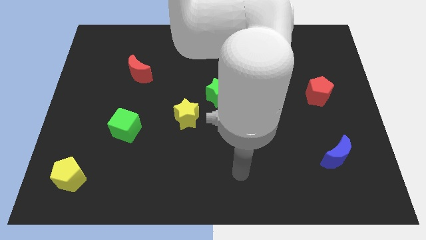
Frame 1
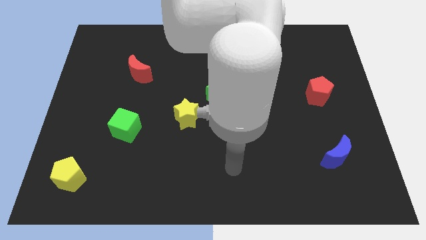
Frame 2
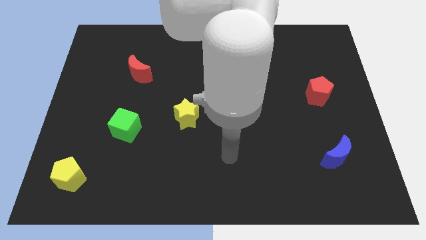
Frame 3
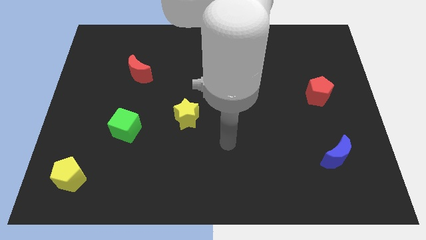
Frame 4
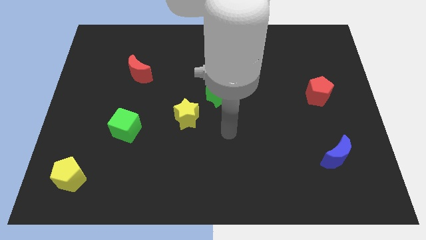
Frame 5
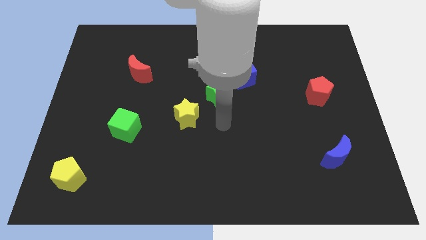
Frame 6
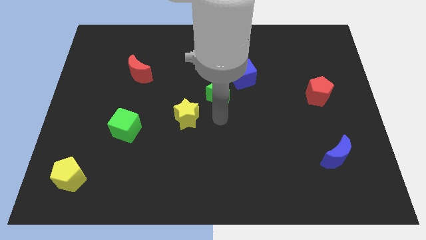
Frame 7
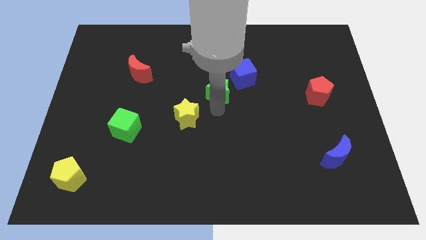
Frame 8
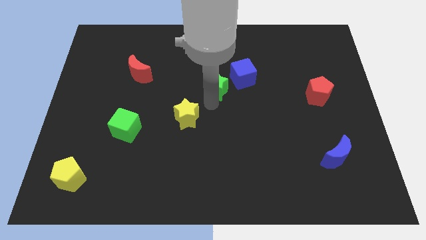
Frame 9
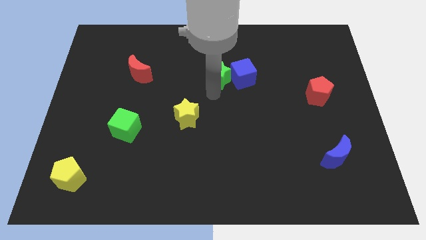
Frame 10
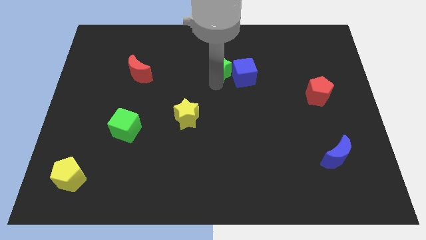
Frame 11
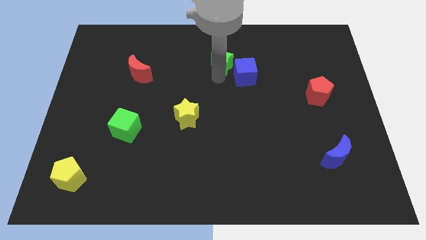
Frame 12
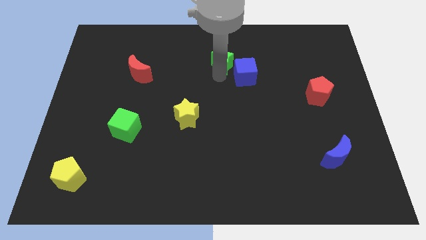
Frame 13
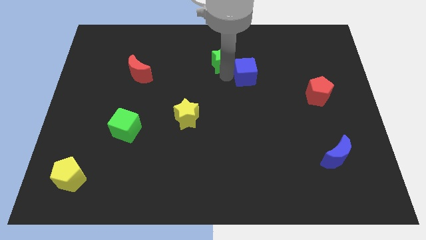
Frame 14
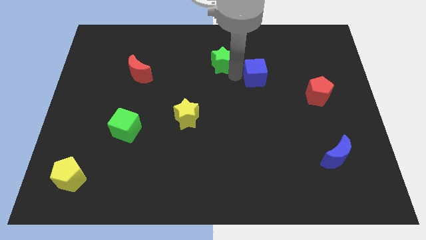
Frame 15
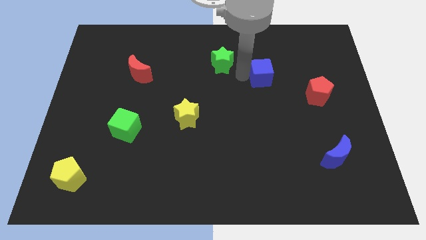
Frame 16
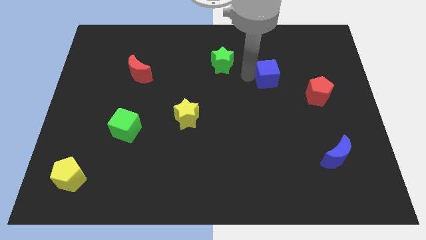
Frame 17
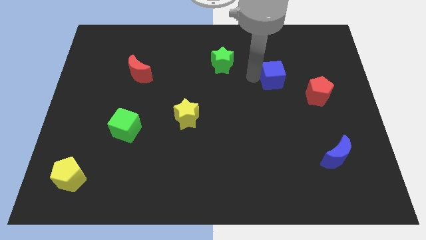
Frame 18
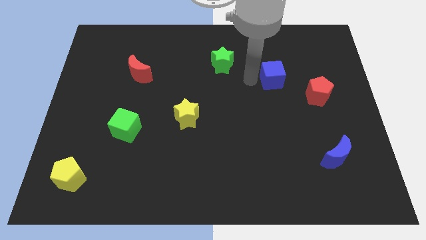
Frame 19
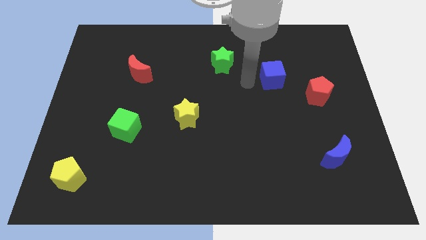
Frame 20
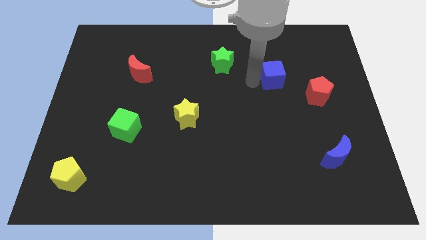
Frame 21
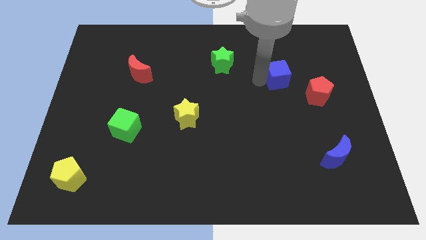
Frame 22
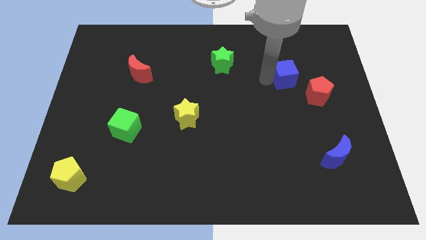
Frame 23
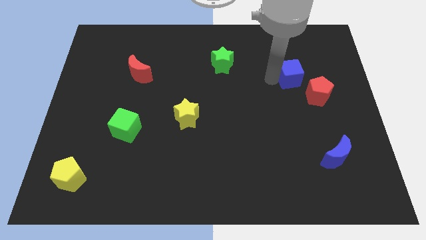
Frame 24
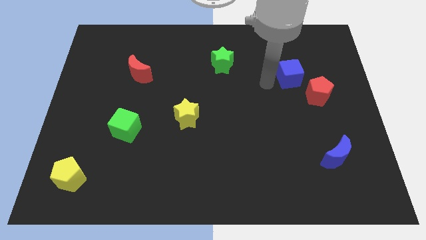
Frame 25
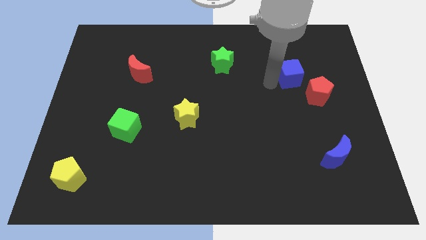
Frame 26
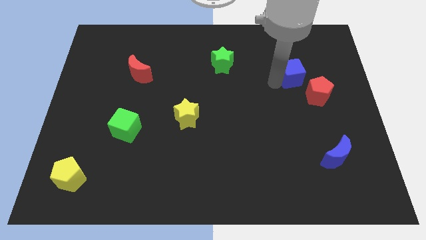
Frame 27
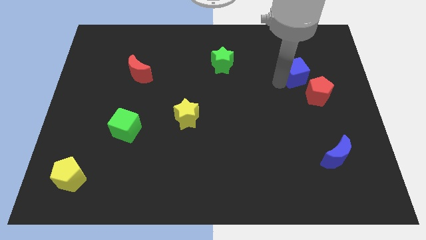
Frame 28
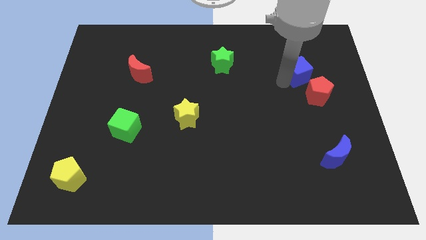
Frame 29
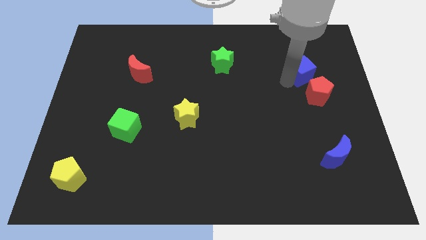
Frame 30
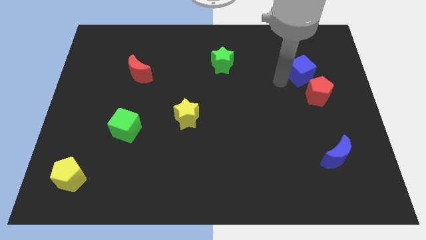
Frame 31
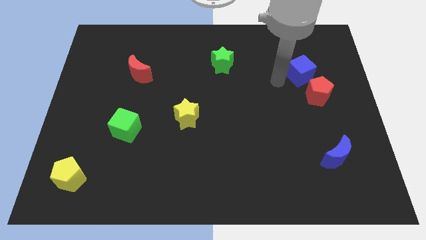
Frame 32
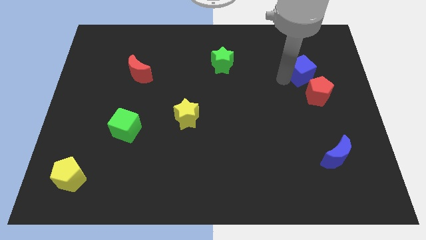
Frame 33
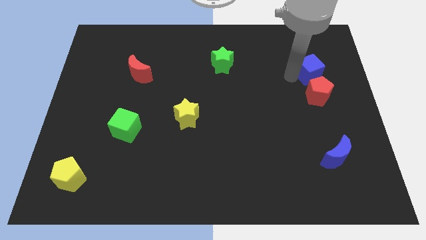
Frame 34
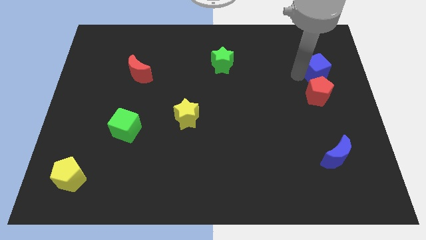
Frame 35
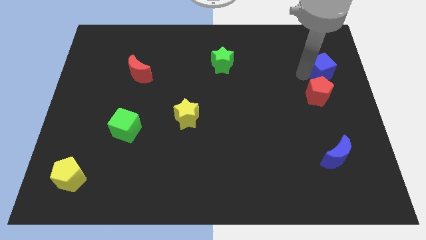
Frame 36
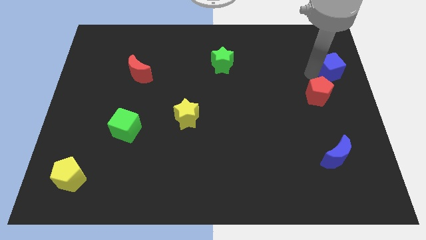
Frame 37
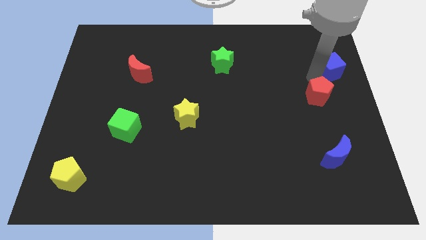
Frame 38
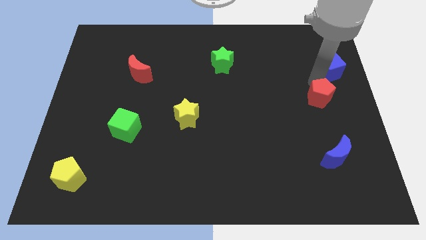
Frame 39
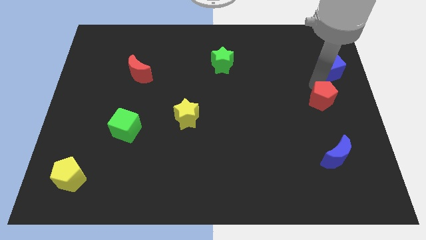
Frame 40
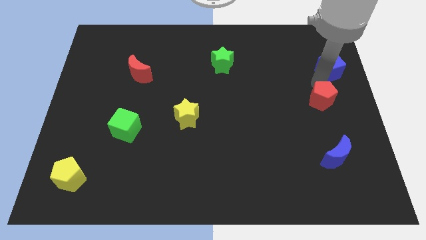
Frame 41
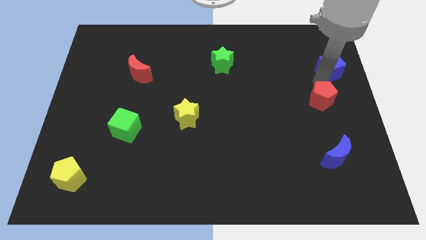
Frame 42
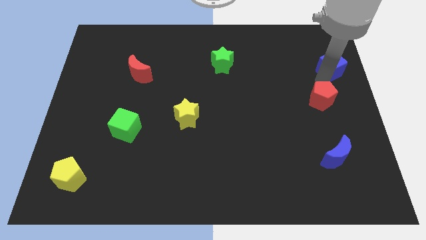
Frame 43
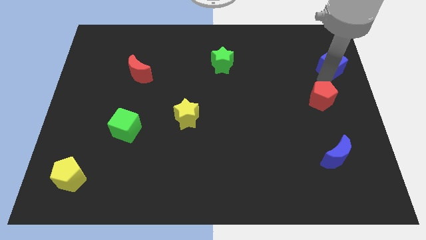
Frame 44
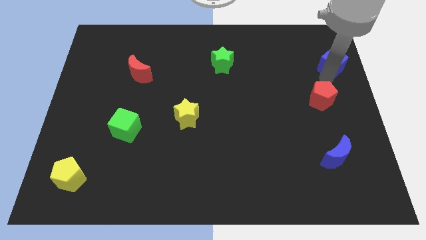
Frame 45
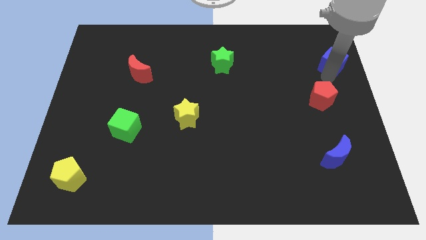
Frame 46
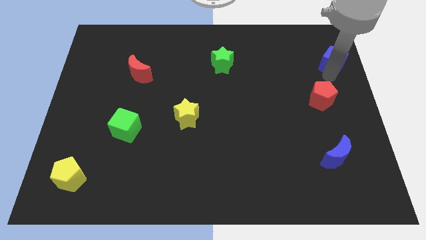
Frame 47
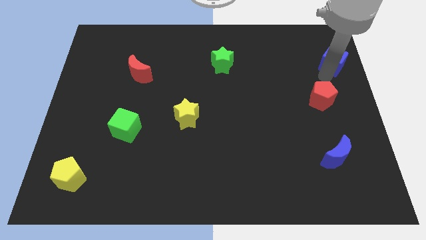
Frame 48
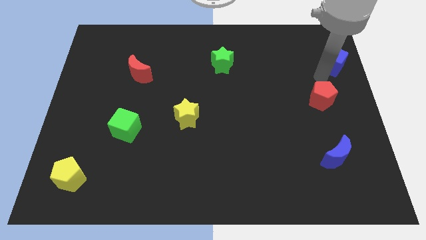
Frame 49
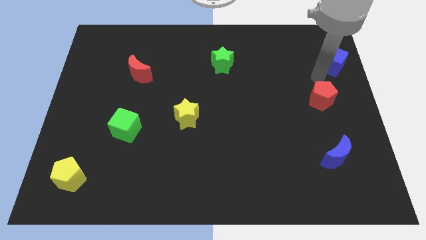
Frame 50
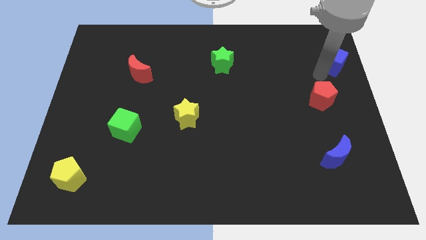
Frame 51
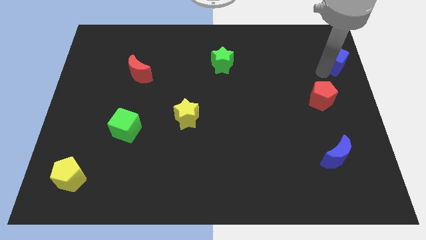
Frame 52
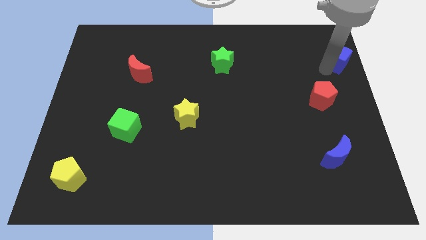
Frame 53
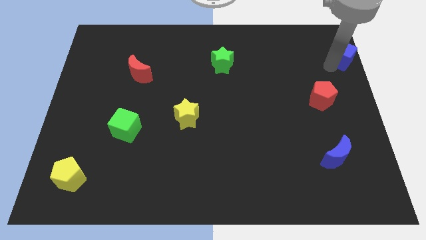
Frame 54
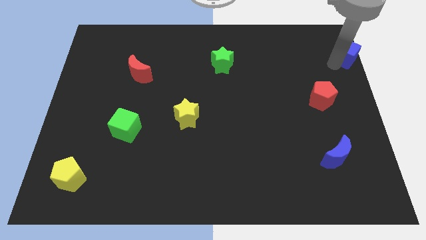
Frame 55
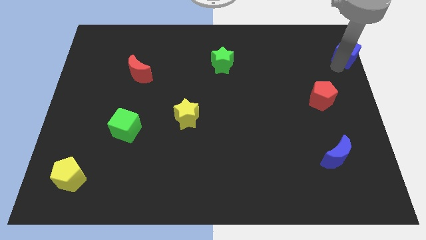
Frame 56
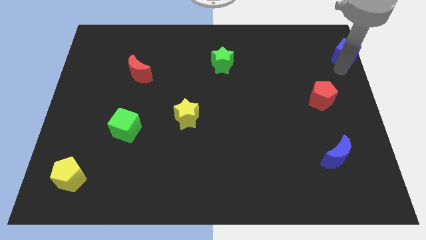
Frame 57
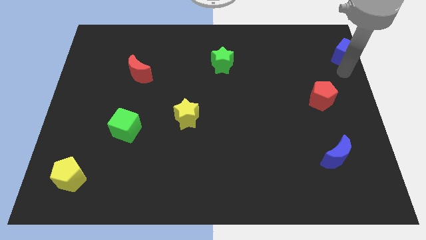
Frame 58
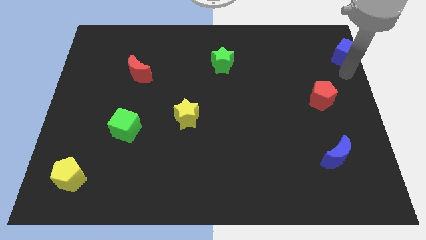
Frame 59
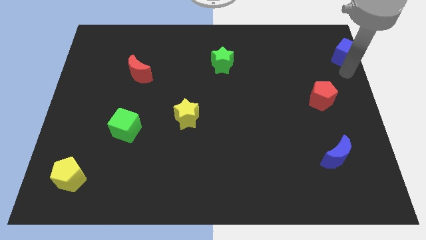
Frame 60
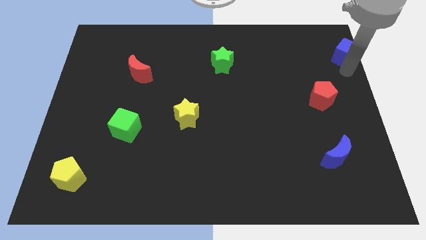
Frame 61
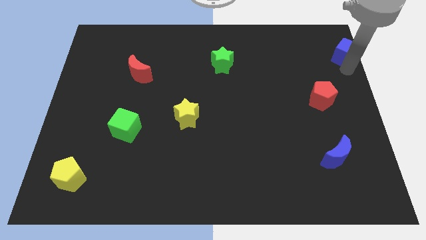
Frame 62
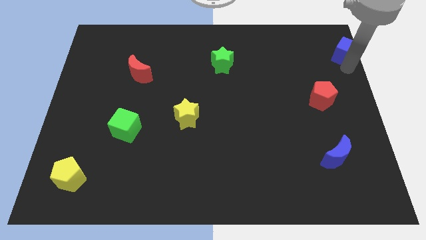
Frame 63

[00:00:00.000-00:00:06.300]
push the blue cube to the upper right corner

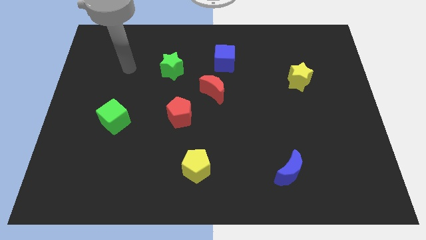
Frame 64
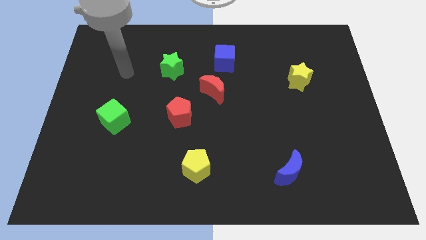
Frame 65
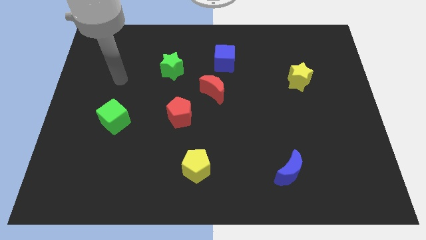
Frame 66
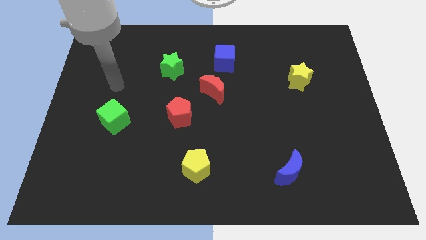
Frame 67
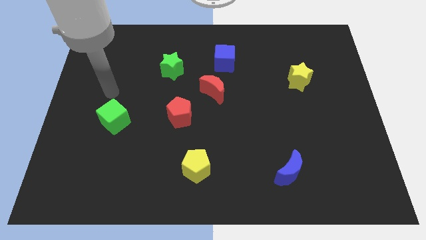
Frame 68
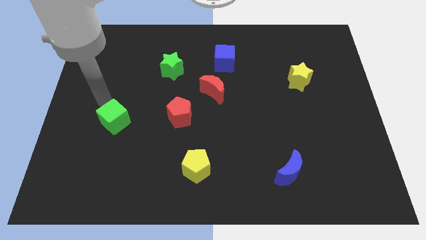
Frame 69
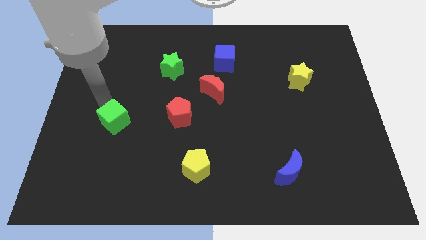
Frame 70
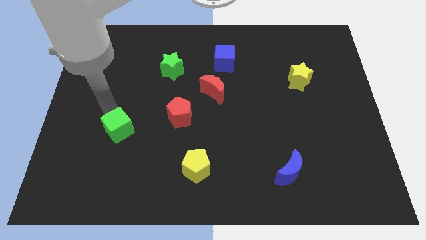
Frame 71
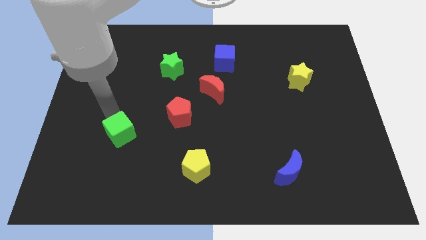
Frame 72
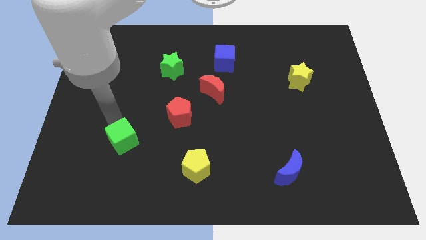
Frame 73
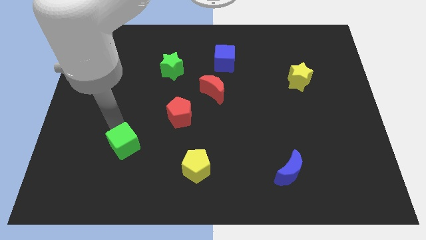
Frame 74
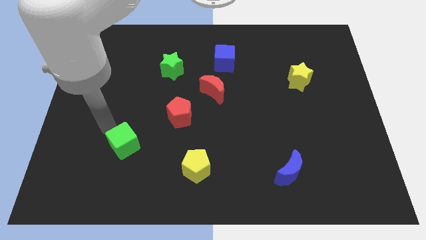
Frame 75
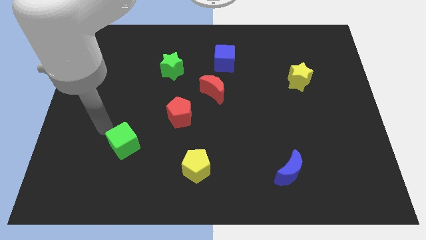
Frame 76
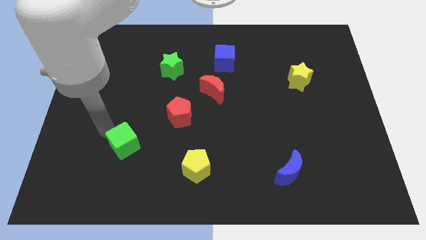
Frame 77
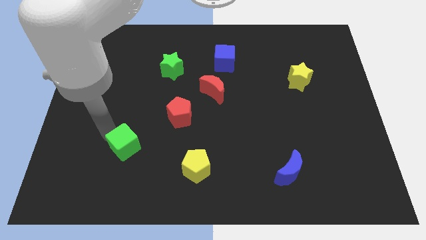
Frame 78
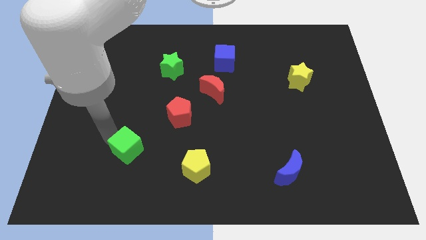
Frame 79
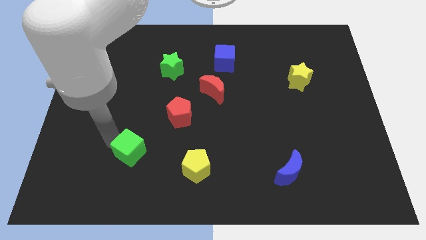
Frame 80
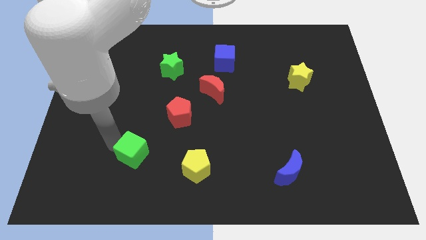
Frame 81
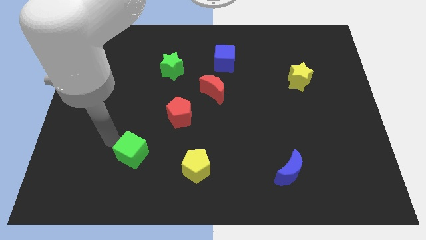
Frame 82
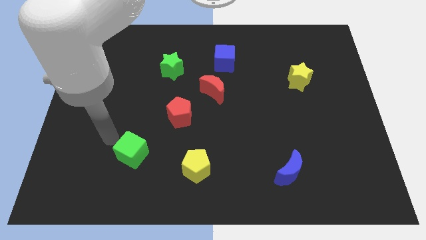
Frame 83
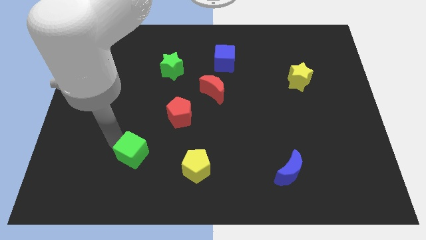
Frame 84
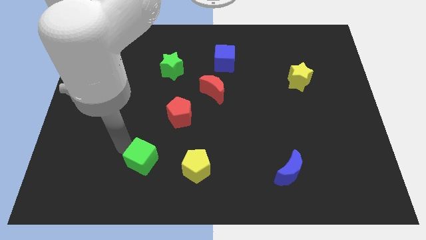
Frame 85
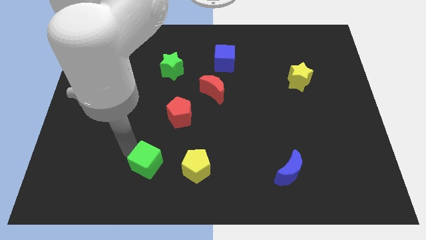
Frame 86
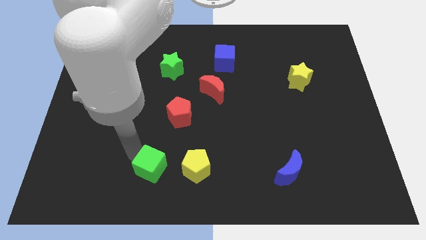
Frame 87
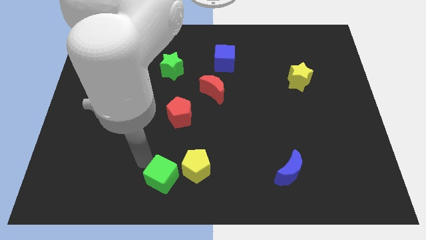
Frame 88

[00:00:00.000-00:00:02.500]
put the green cube to the bottom side
